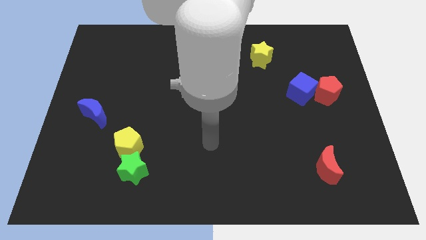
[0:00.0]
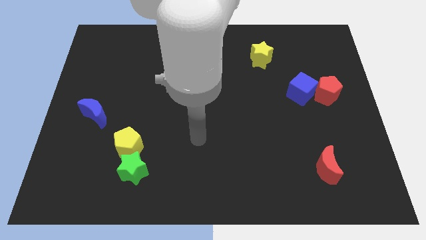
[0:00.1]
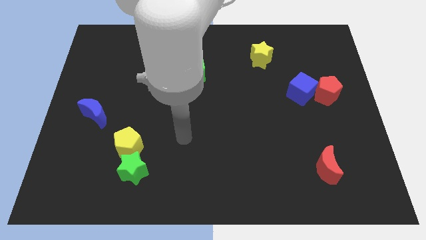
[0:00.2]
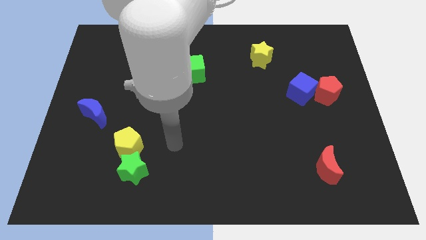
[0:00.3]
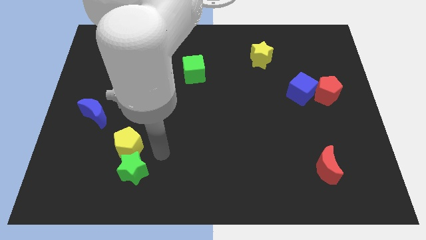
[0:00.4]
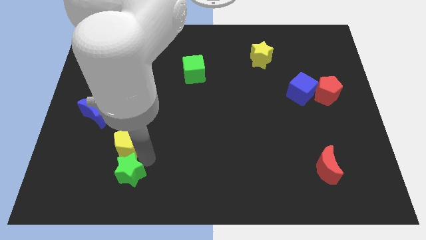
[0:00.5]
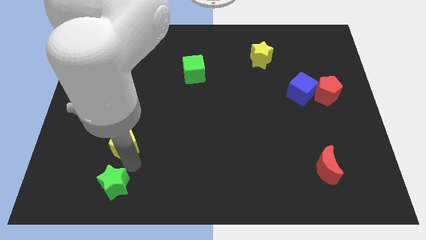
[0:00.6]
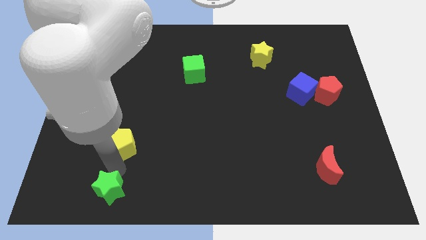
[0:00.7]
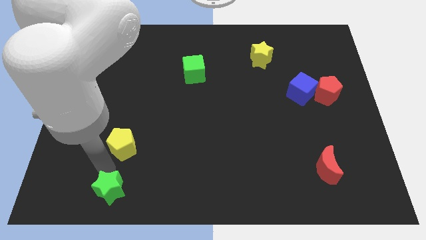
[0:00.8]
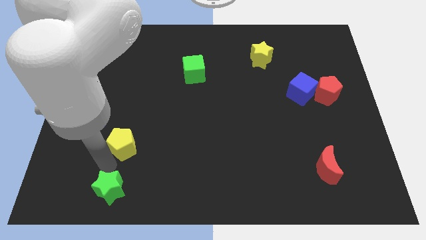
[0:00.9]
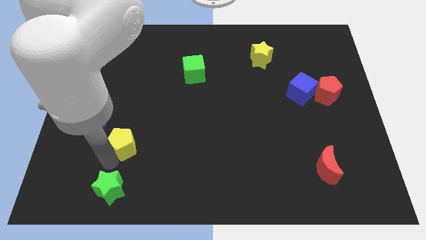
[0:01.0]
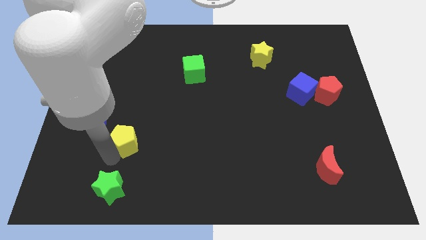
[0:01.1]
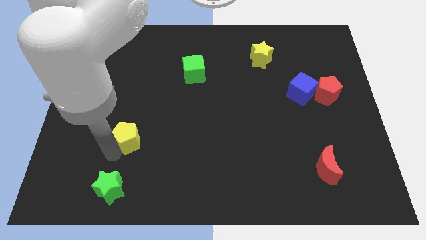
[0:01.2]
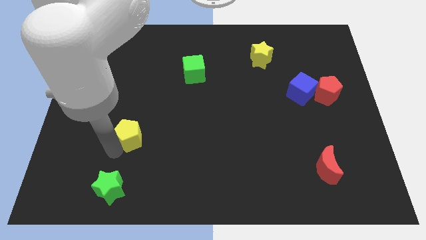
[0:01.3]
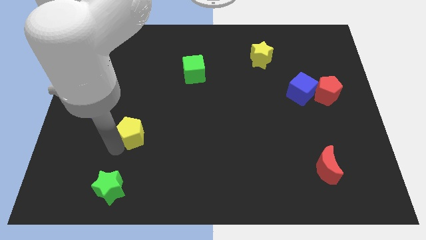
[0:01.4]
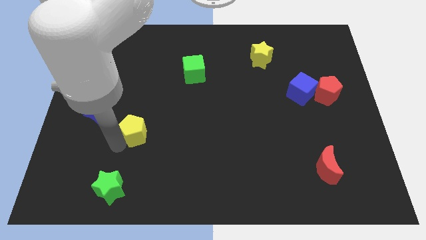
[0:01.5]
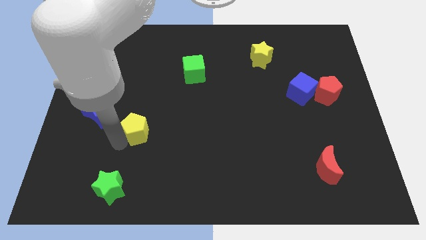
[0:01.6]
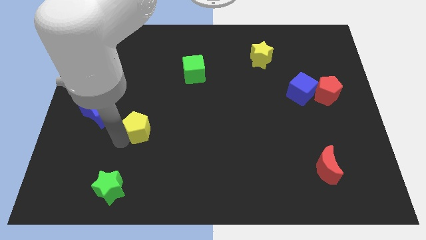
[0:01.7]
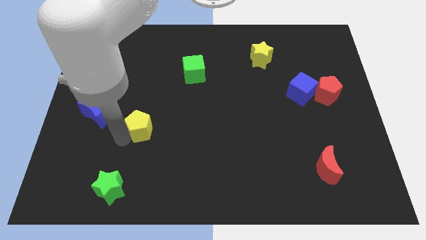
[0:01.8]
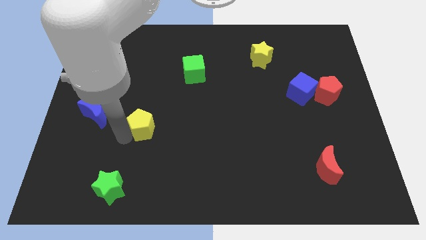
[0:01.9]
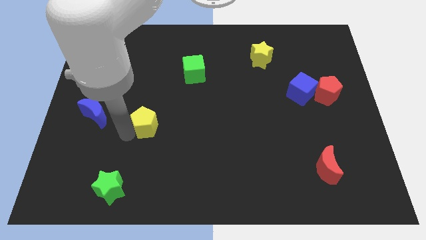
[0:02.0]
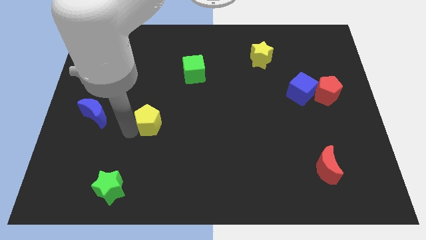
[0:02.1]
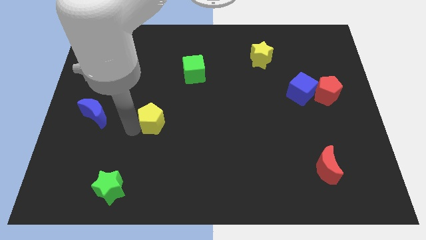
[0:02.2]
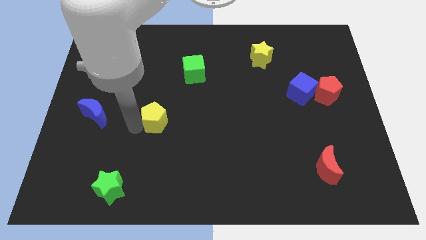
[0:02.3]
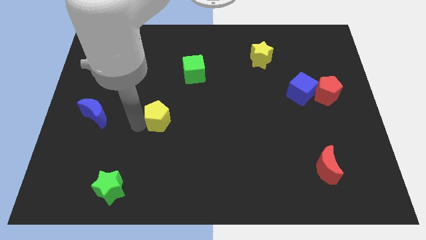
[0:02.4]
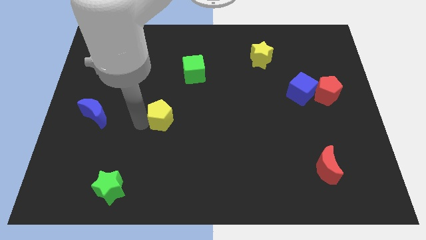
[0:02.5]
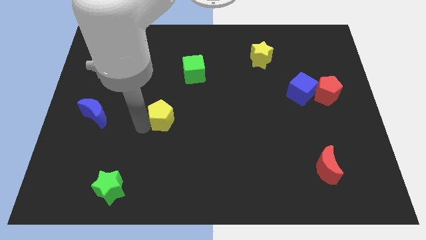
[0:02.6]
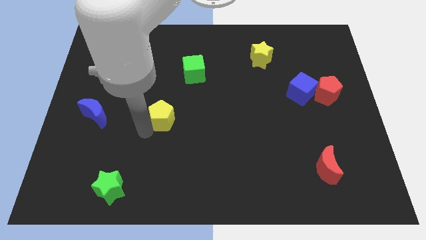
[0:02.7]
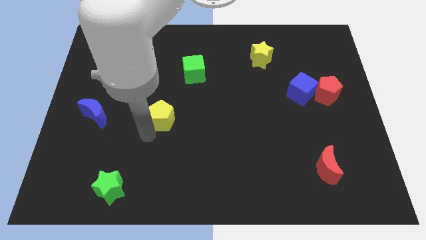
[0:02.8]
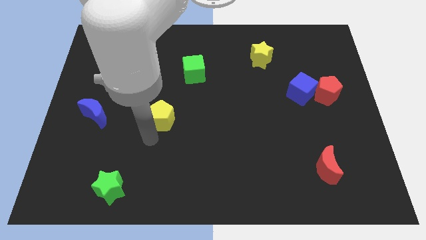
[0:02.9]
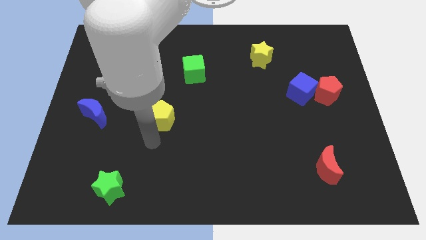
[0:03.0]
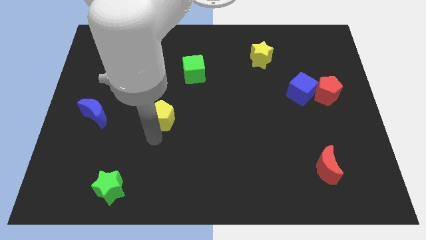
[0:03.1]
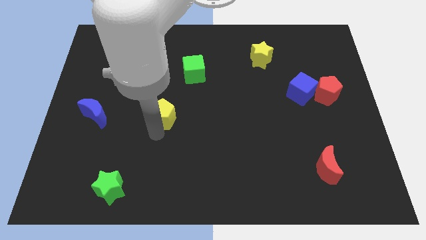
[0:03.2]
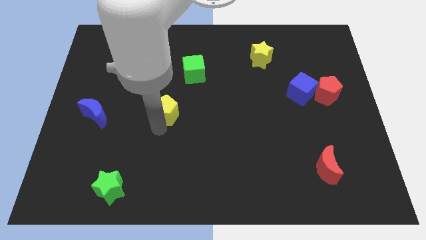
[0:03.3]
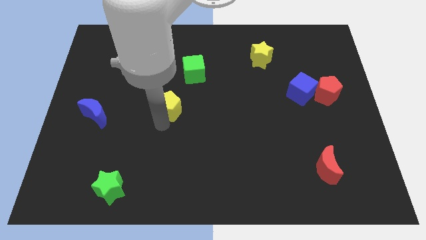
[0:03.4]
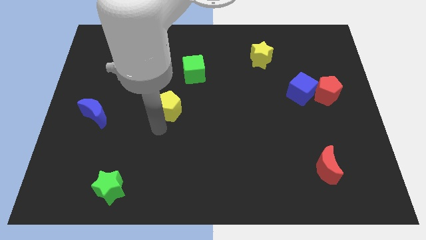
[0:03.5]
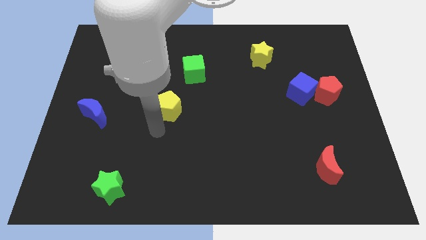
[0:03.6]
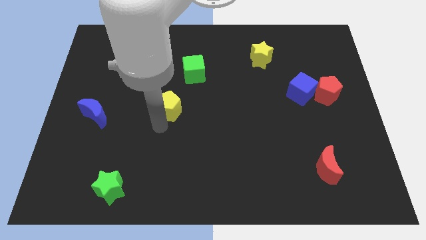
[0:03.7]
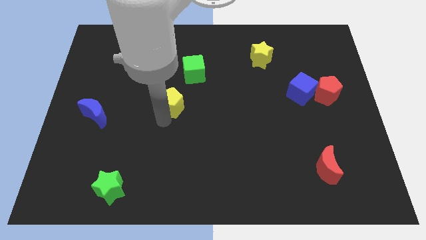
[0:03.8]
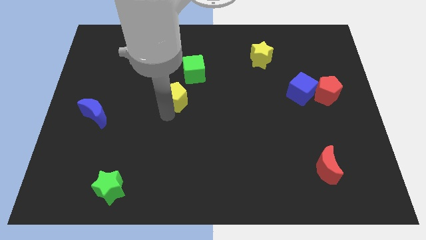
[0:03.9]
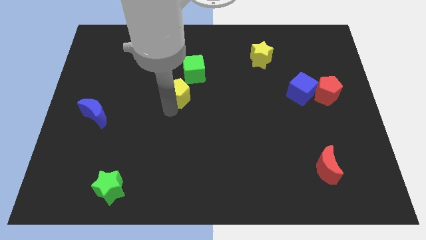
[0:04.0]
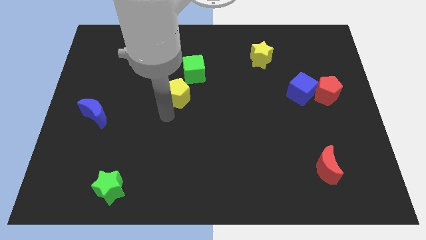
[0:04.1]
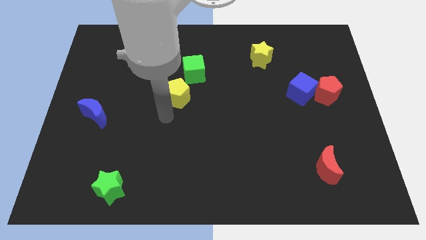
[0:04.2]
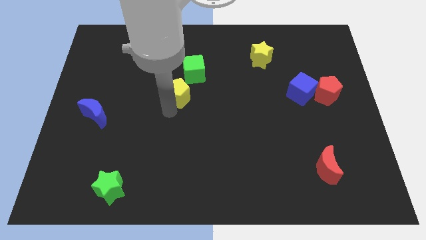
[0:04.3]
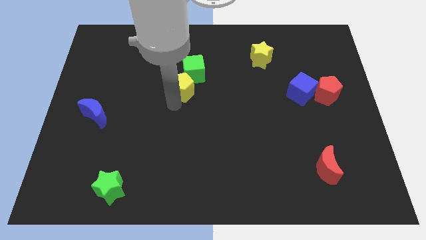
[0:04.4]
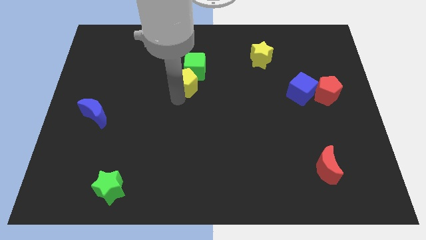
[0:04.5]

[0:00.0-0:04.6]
slide the yellow pentagon next to the green cube

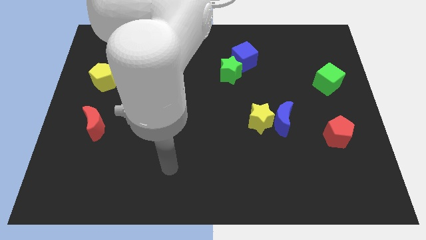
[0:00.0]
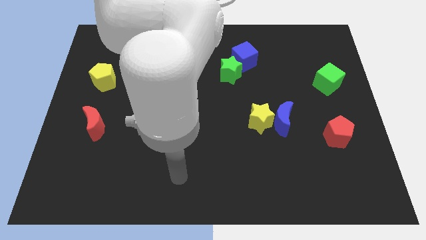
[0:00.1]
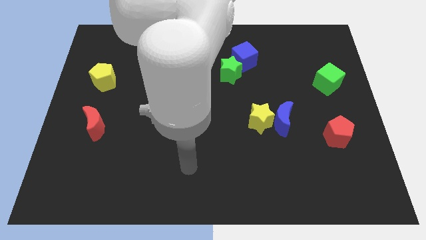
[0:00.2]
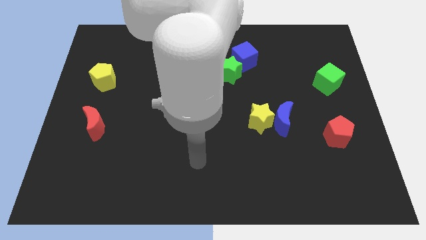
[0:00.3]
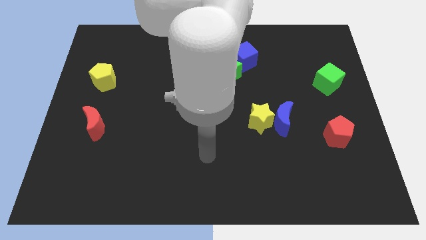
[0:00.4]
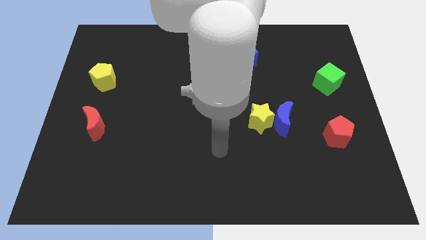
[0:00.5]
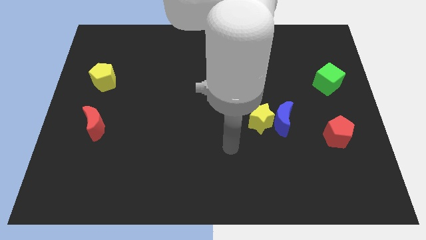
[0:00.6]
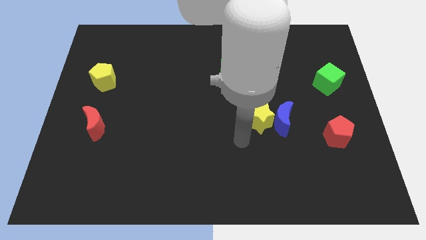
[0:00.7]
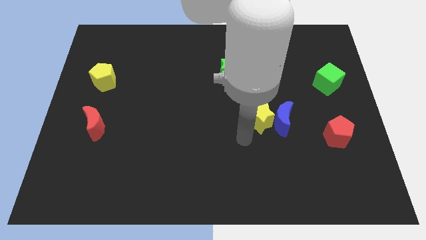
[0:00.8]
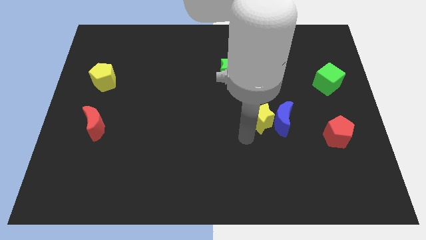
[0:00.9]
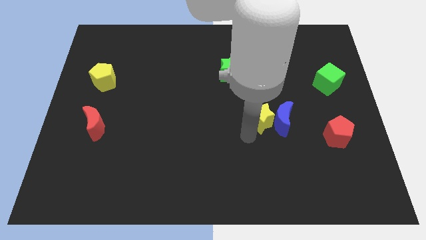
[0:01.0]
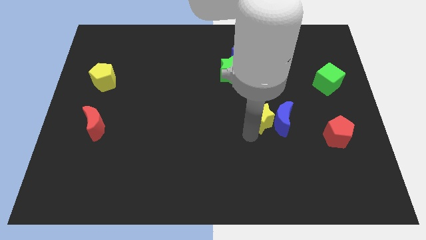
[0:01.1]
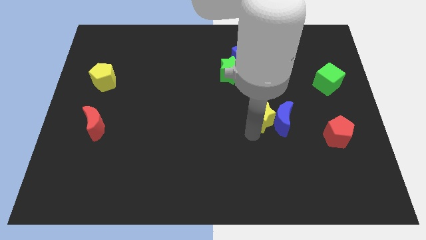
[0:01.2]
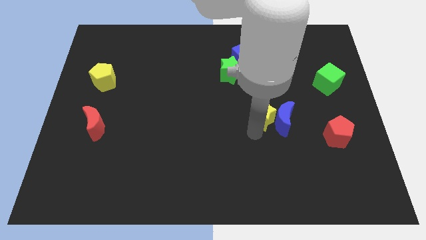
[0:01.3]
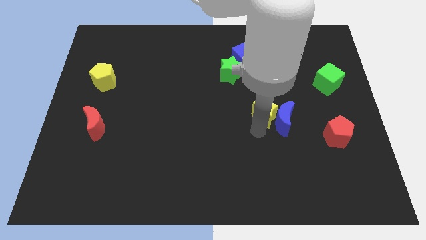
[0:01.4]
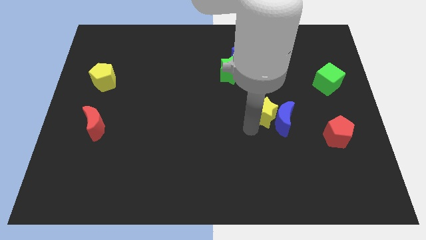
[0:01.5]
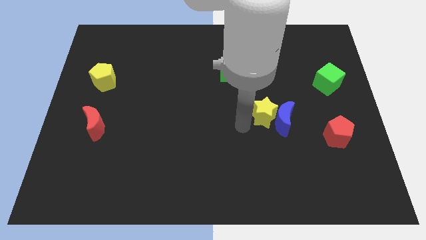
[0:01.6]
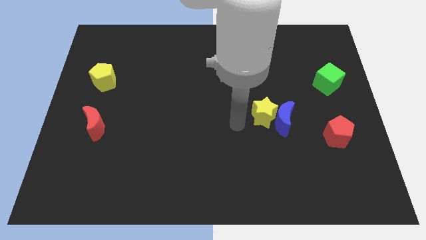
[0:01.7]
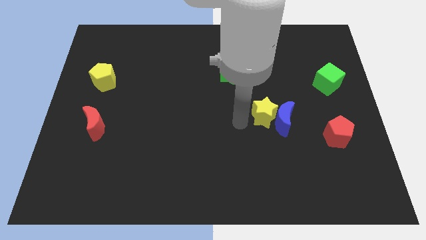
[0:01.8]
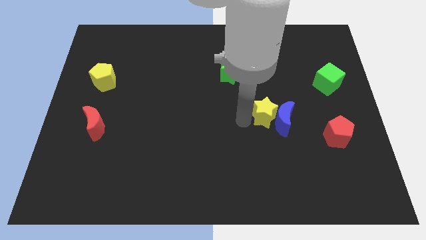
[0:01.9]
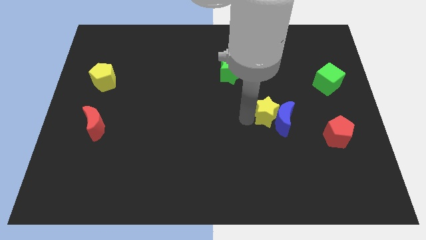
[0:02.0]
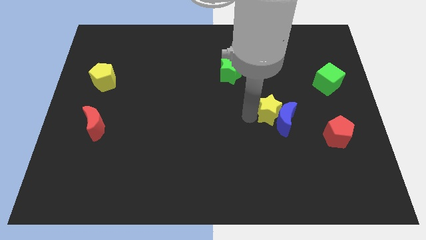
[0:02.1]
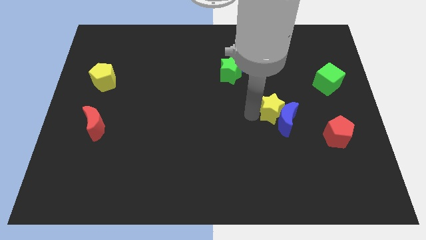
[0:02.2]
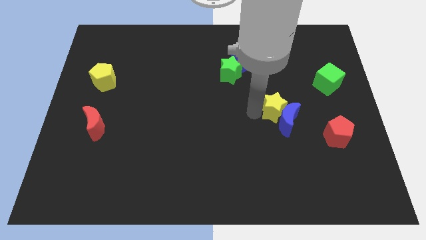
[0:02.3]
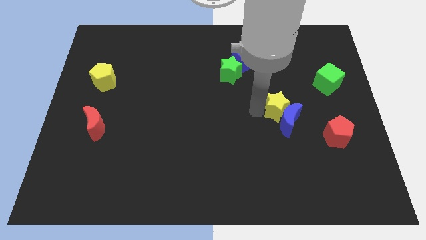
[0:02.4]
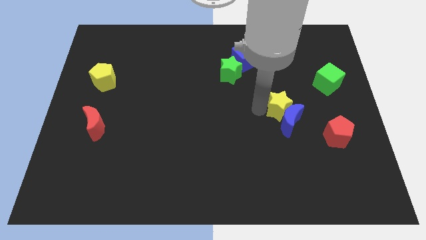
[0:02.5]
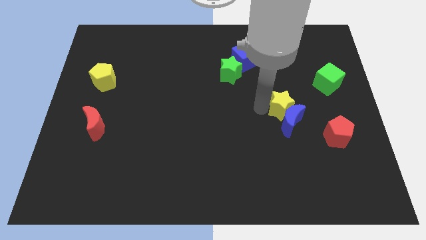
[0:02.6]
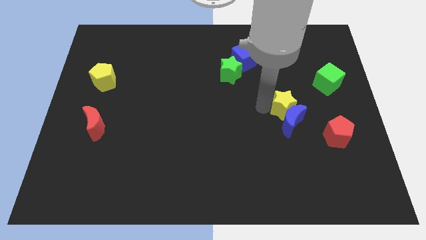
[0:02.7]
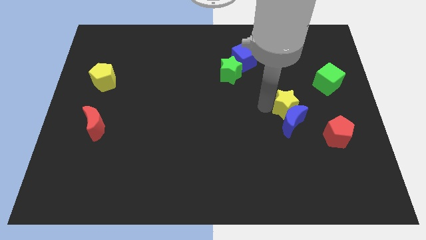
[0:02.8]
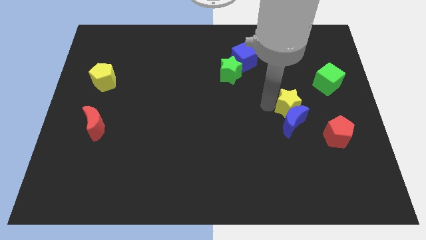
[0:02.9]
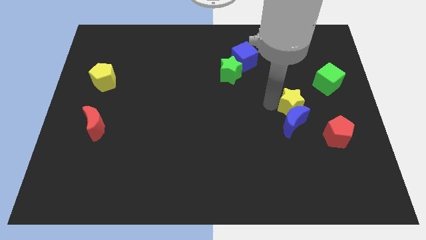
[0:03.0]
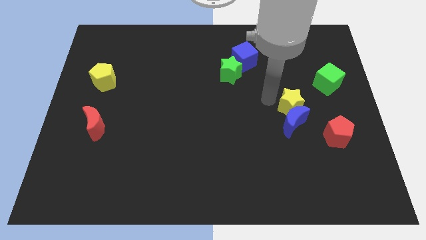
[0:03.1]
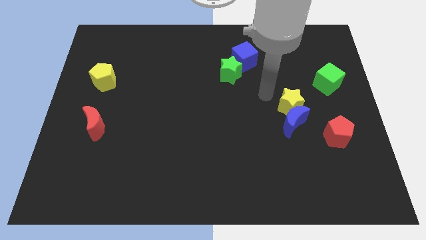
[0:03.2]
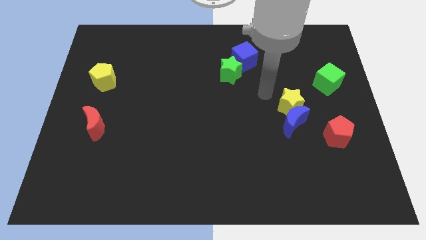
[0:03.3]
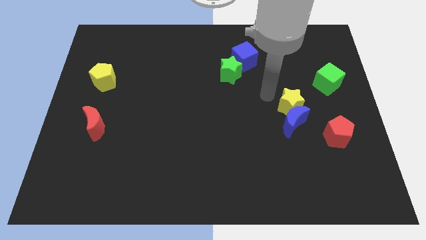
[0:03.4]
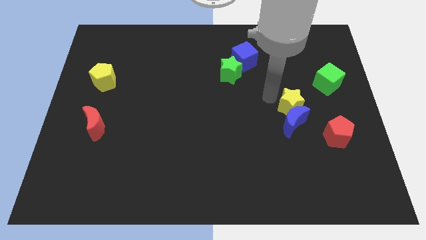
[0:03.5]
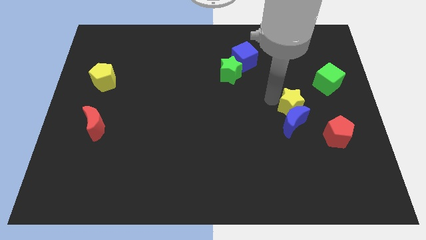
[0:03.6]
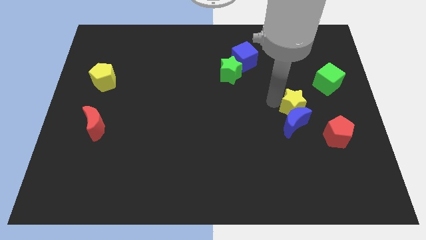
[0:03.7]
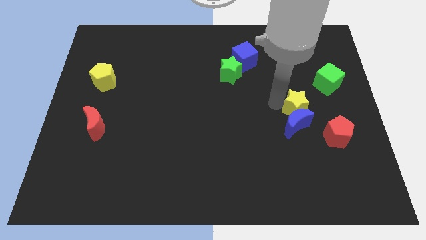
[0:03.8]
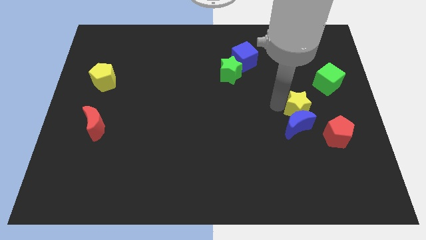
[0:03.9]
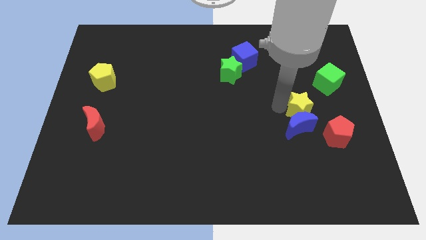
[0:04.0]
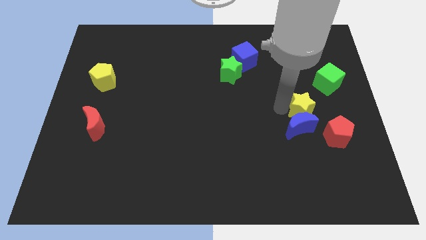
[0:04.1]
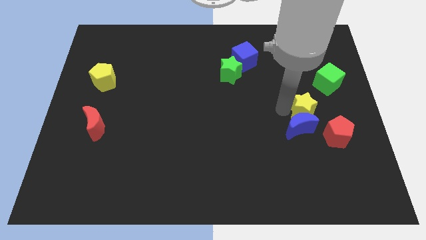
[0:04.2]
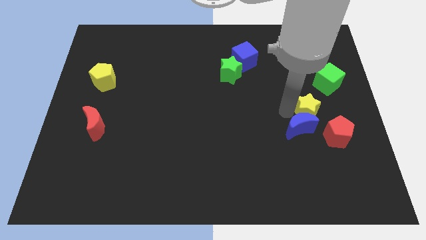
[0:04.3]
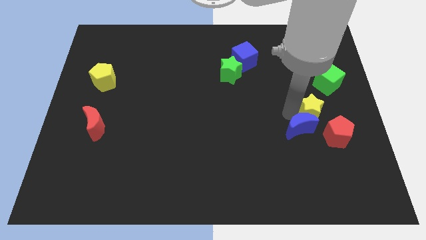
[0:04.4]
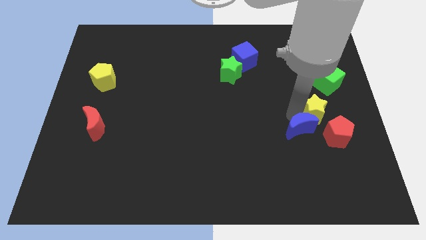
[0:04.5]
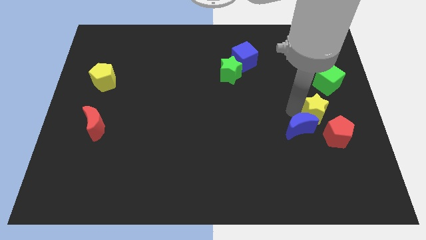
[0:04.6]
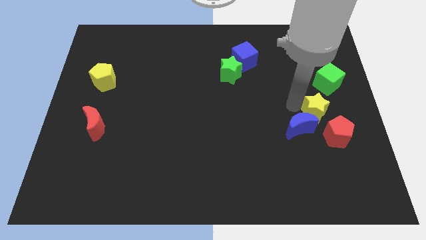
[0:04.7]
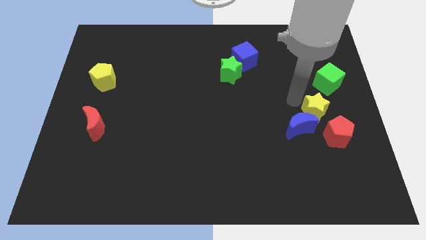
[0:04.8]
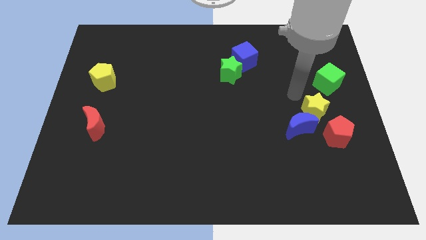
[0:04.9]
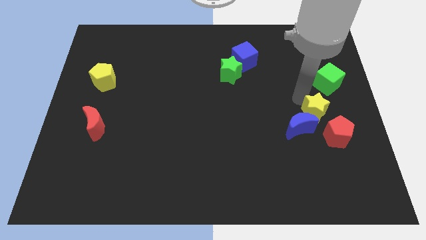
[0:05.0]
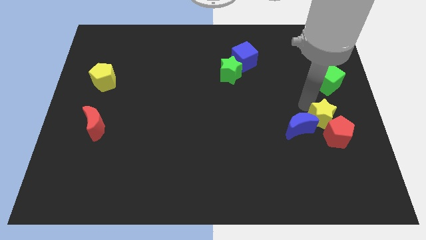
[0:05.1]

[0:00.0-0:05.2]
move the yellow star next to the red pentagon
